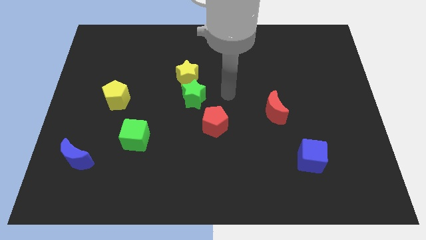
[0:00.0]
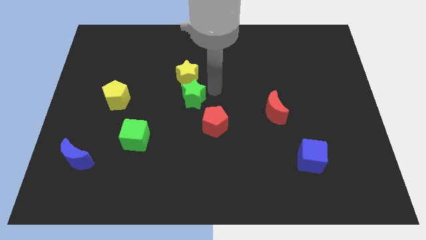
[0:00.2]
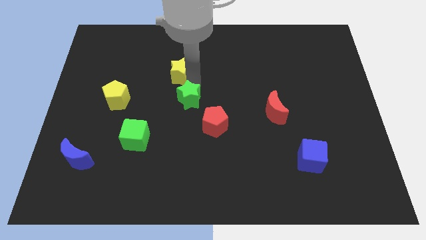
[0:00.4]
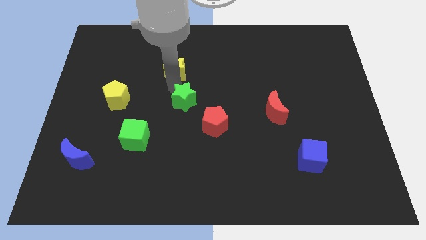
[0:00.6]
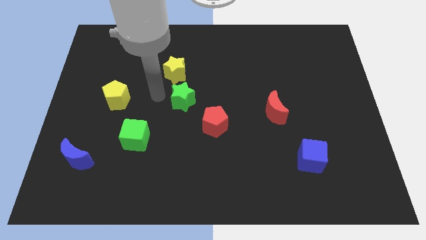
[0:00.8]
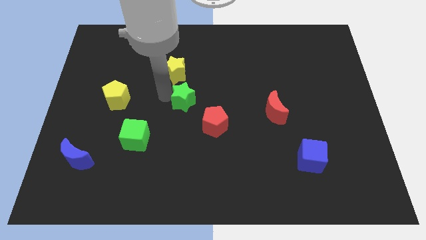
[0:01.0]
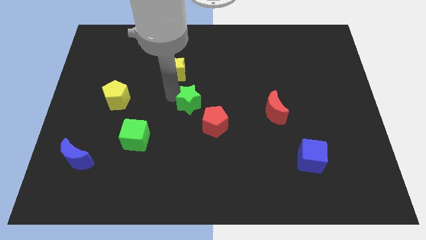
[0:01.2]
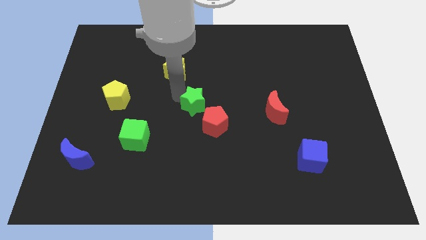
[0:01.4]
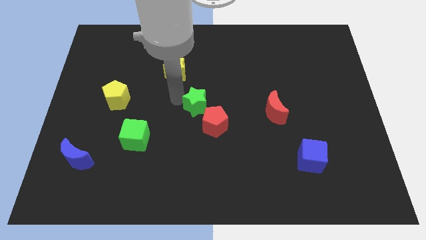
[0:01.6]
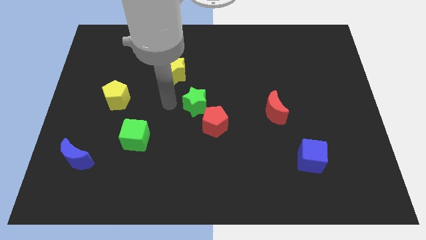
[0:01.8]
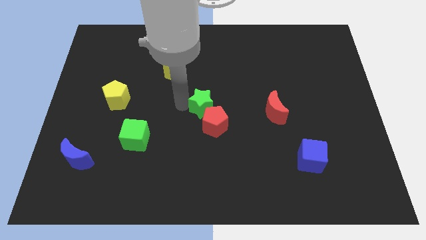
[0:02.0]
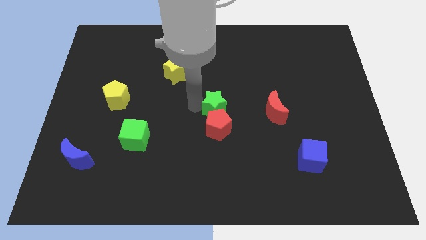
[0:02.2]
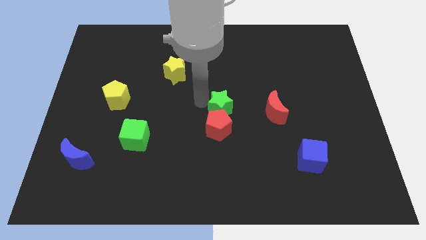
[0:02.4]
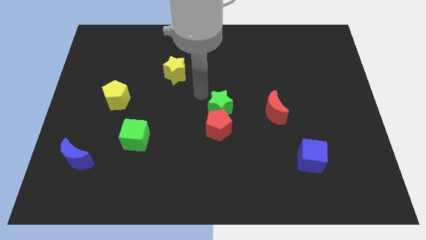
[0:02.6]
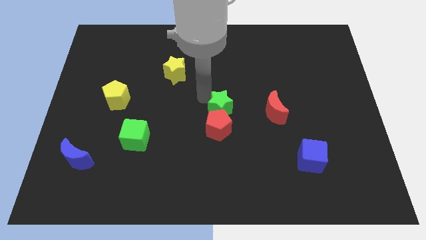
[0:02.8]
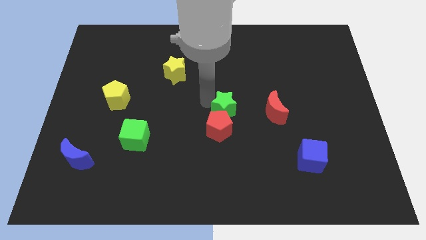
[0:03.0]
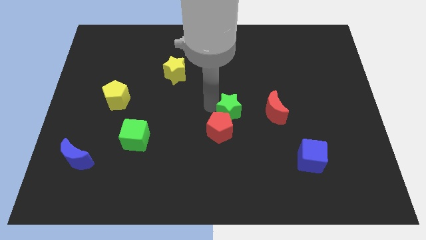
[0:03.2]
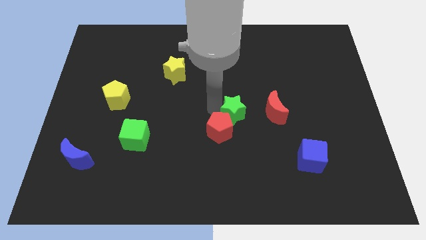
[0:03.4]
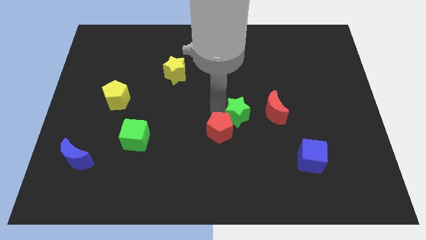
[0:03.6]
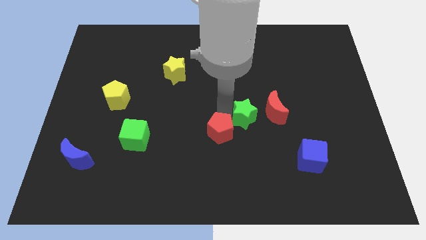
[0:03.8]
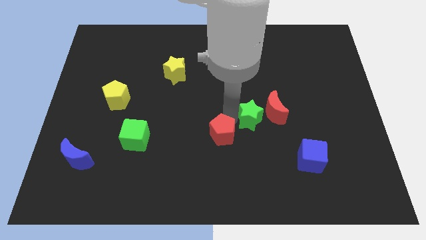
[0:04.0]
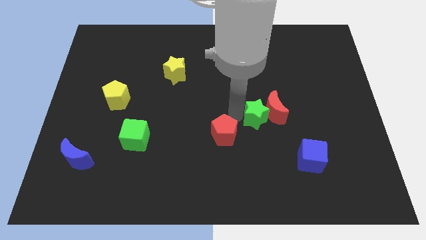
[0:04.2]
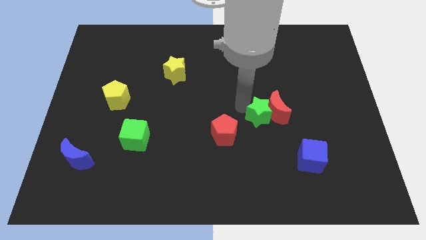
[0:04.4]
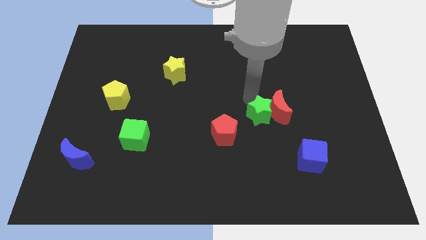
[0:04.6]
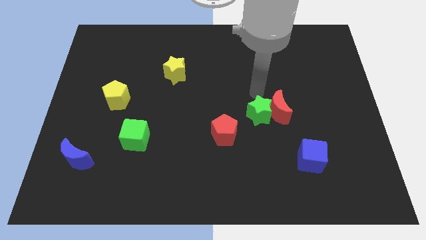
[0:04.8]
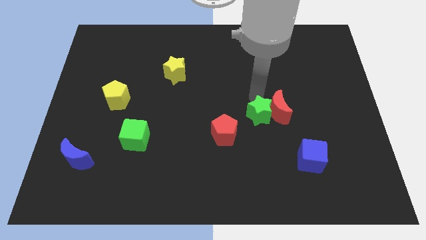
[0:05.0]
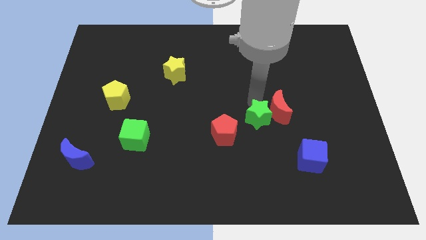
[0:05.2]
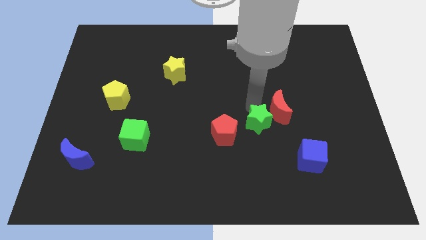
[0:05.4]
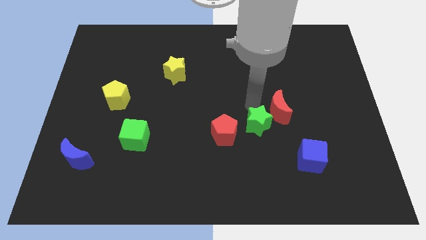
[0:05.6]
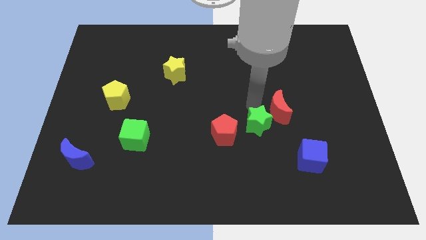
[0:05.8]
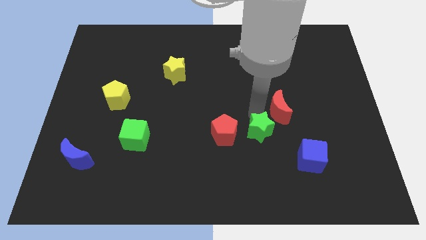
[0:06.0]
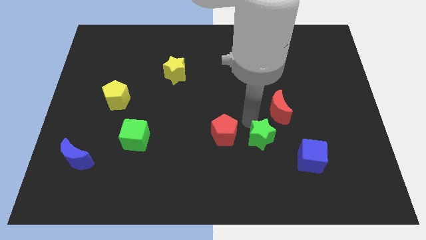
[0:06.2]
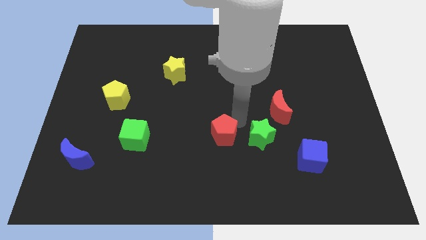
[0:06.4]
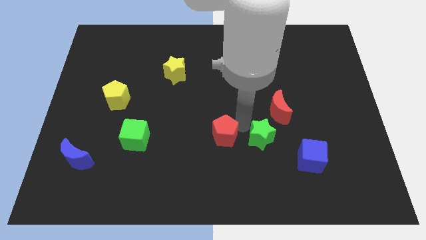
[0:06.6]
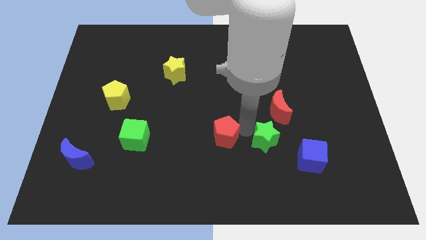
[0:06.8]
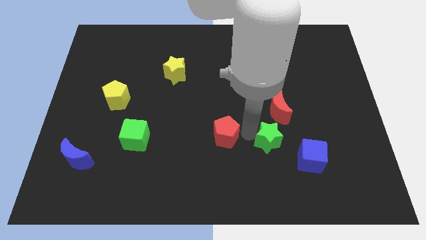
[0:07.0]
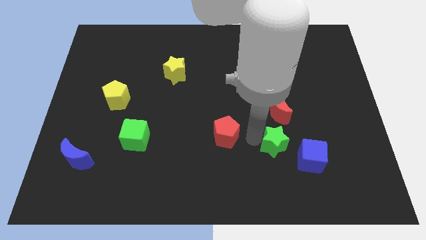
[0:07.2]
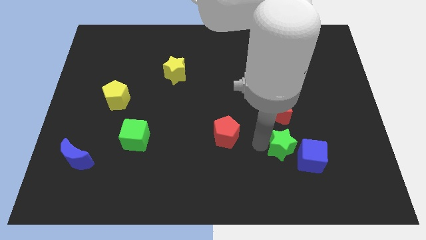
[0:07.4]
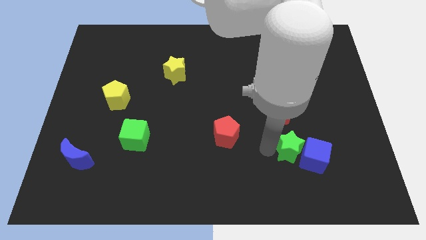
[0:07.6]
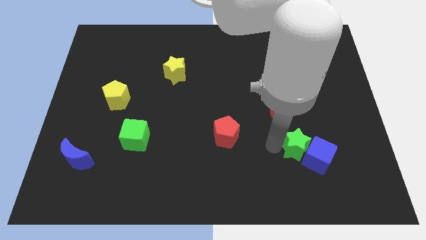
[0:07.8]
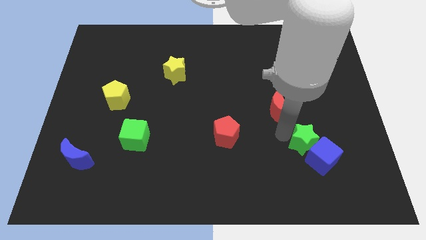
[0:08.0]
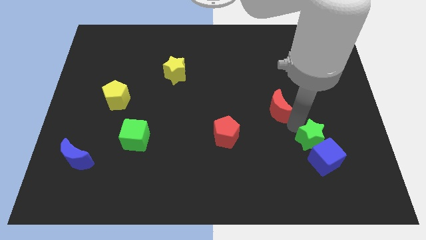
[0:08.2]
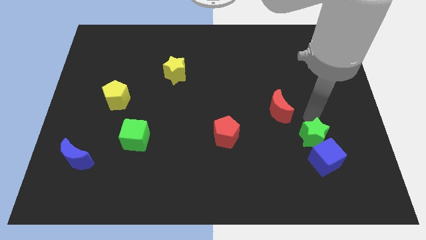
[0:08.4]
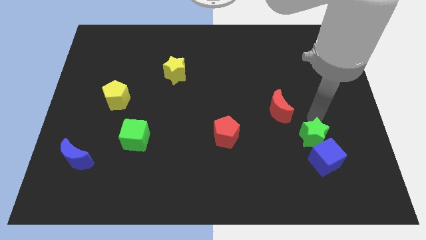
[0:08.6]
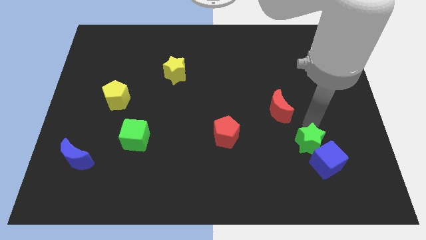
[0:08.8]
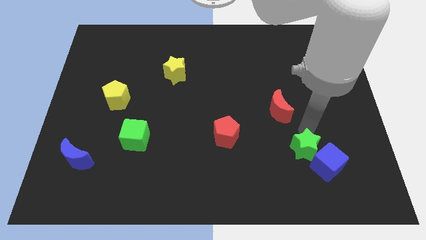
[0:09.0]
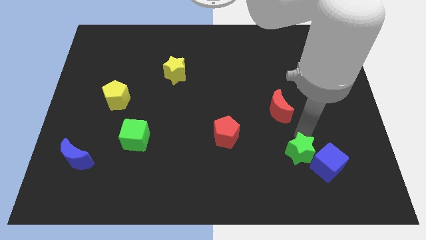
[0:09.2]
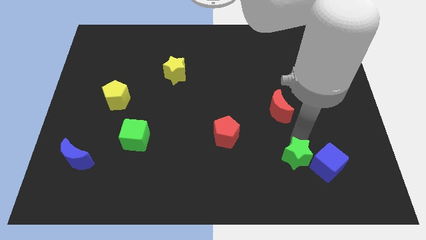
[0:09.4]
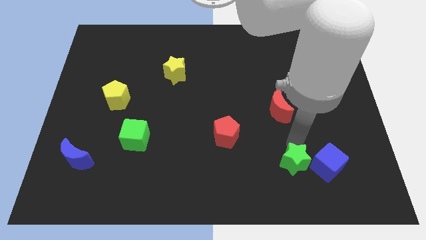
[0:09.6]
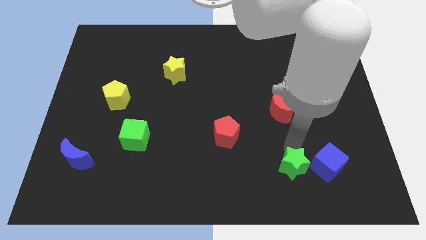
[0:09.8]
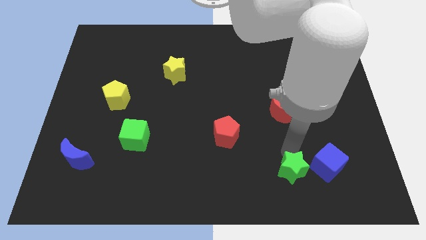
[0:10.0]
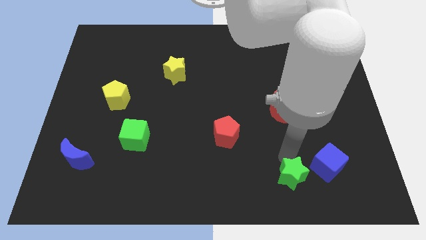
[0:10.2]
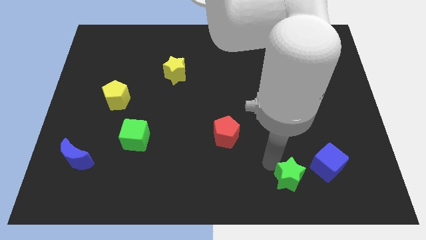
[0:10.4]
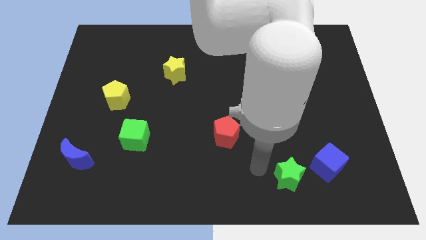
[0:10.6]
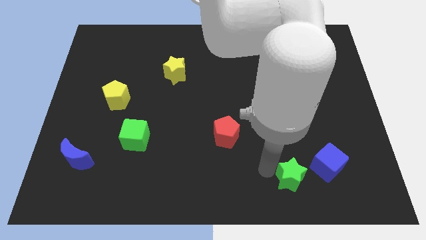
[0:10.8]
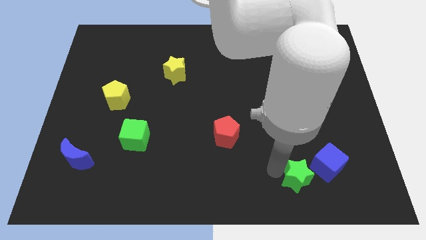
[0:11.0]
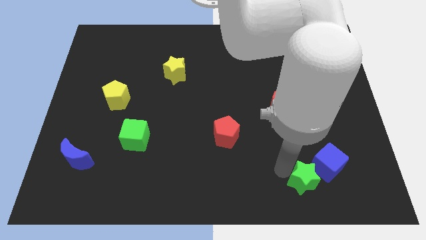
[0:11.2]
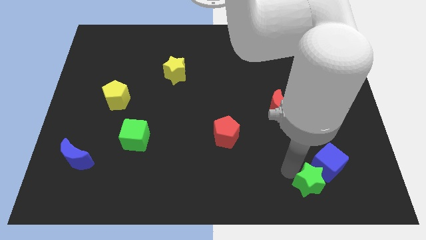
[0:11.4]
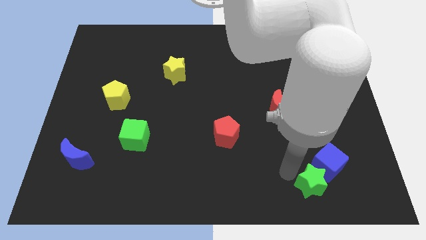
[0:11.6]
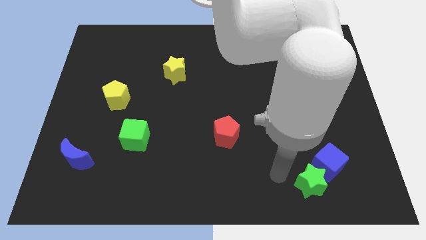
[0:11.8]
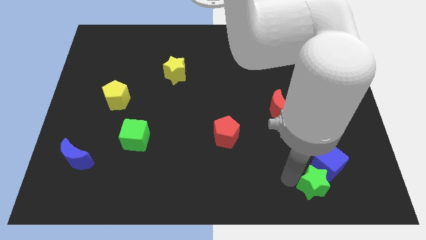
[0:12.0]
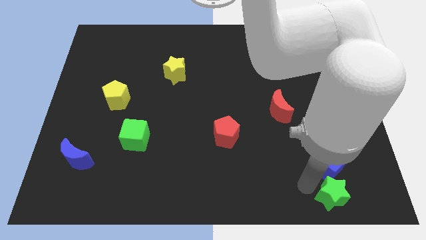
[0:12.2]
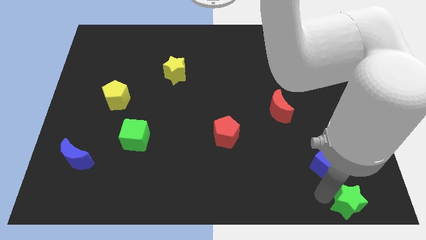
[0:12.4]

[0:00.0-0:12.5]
move the green star to the bottom right of the board
